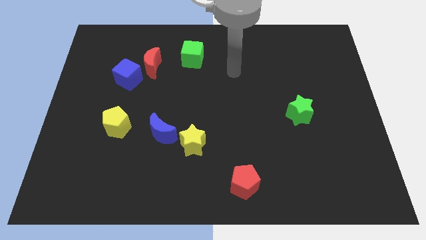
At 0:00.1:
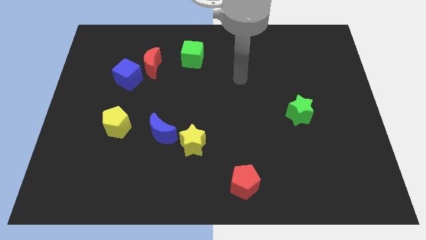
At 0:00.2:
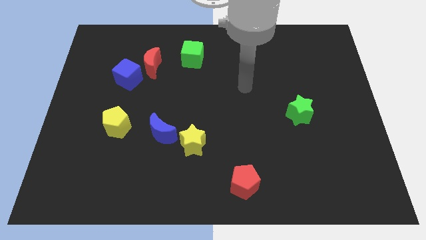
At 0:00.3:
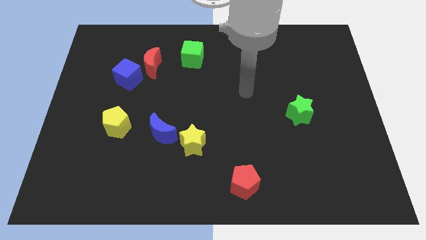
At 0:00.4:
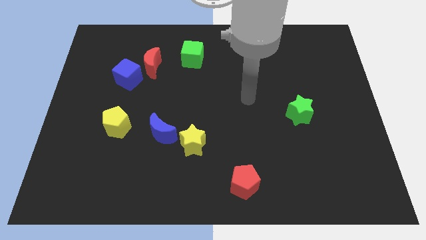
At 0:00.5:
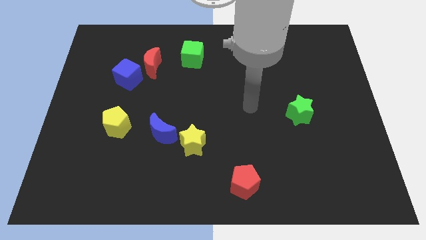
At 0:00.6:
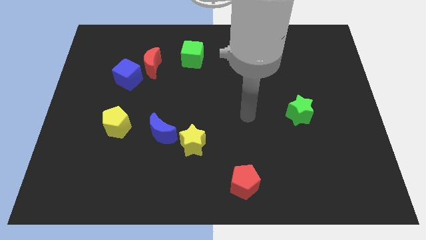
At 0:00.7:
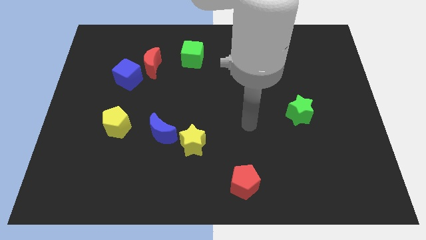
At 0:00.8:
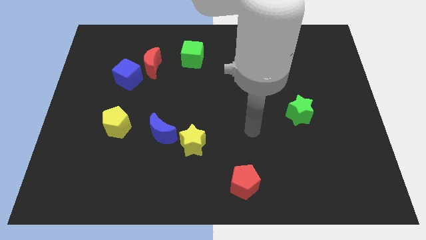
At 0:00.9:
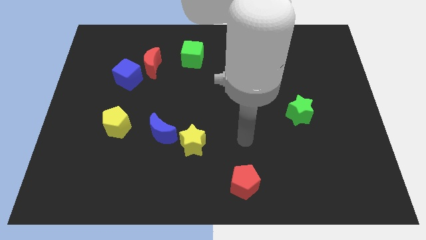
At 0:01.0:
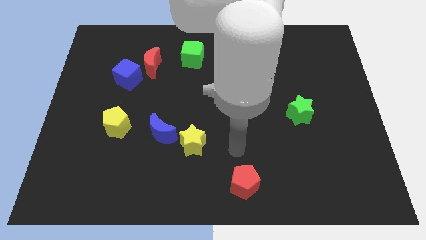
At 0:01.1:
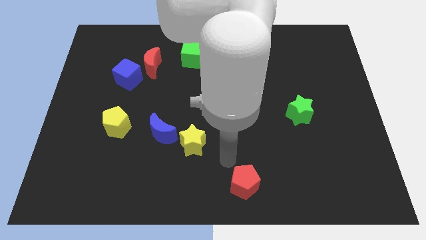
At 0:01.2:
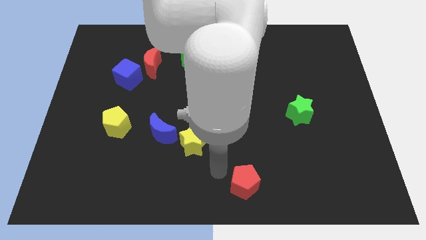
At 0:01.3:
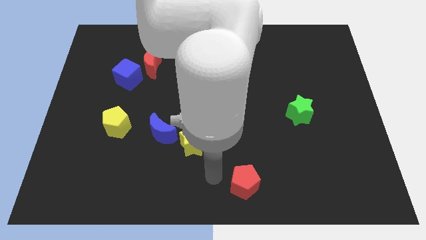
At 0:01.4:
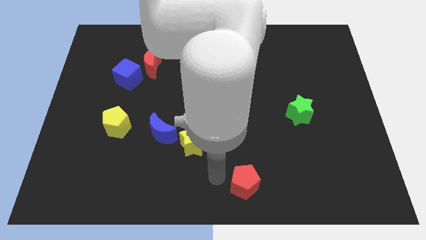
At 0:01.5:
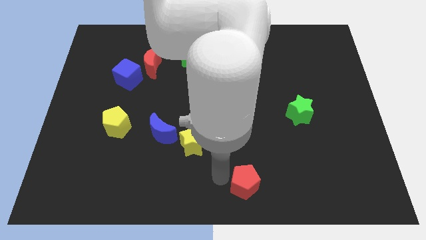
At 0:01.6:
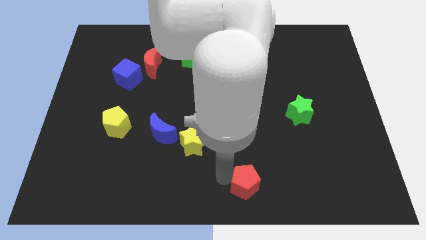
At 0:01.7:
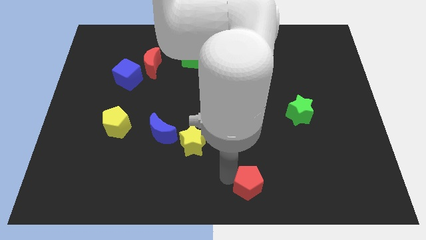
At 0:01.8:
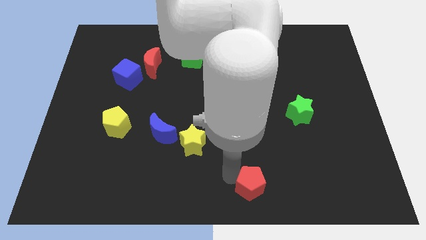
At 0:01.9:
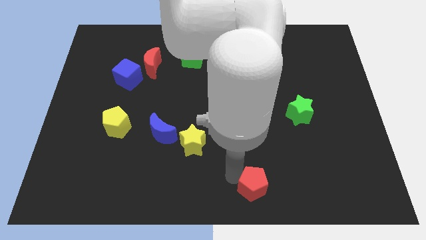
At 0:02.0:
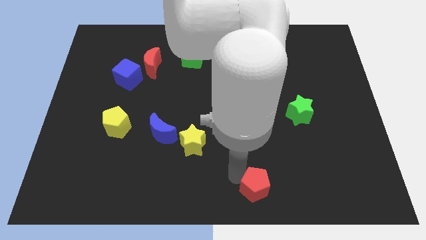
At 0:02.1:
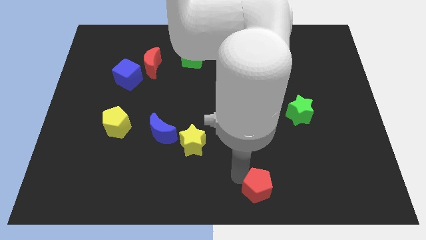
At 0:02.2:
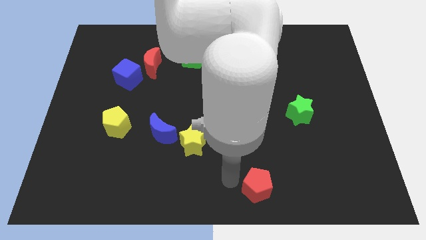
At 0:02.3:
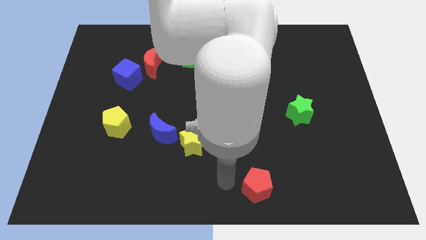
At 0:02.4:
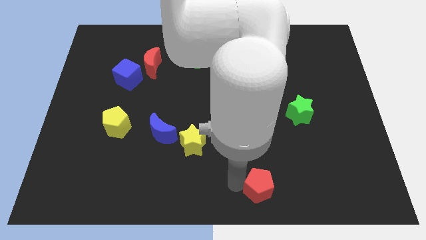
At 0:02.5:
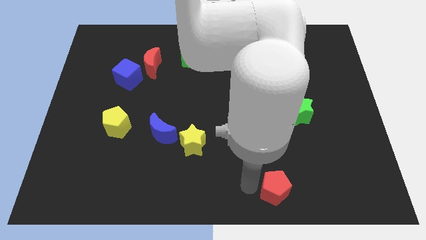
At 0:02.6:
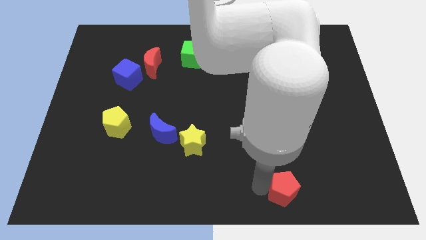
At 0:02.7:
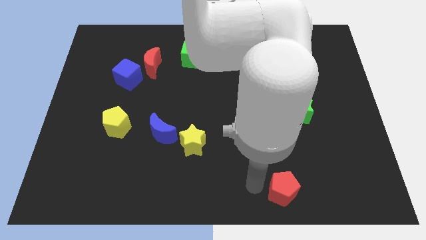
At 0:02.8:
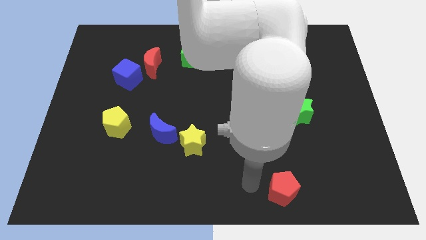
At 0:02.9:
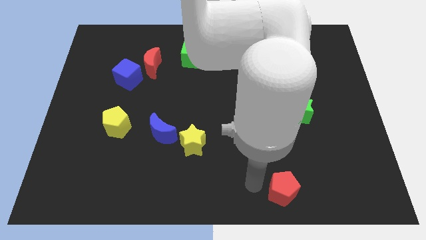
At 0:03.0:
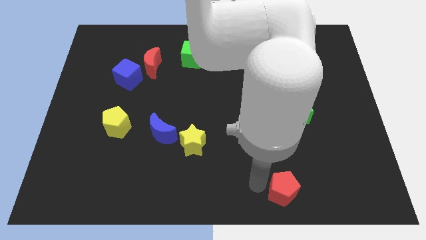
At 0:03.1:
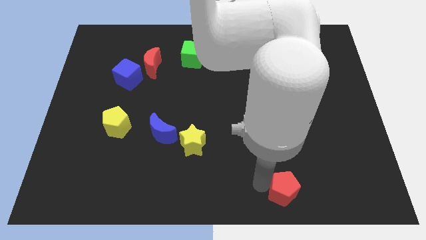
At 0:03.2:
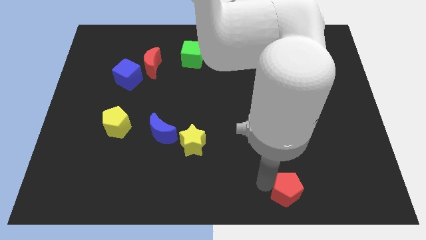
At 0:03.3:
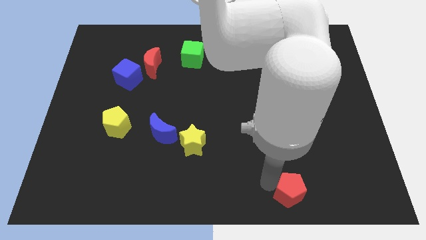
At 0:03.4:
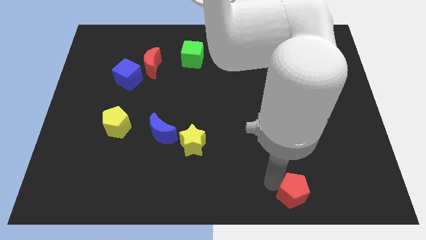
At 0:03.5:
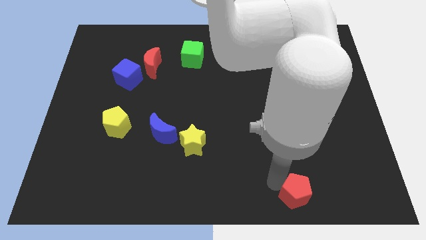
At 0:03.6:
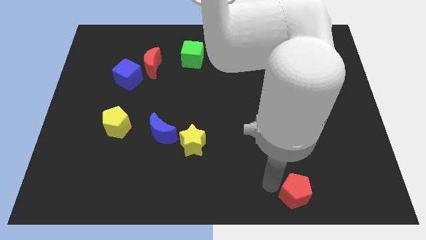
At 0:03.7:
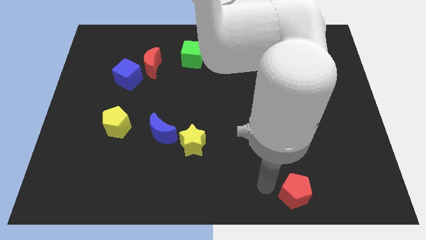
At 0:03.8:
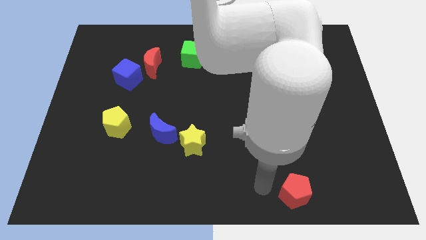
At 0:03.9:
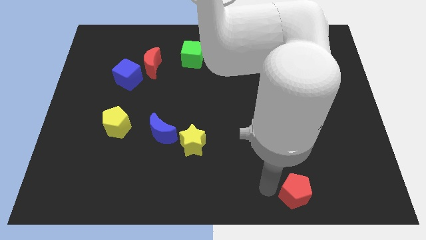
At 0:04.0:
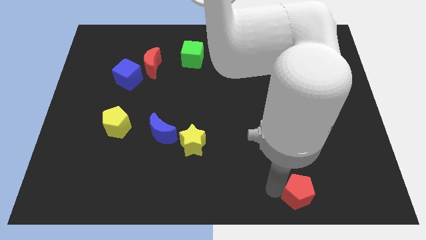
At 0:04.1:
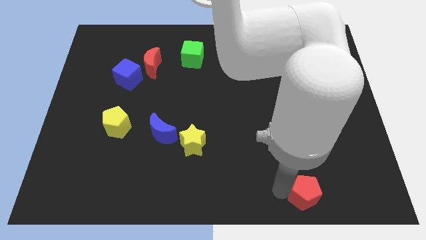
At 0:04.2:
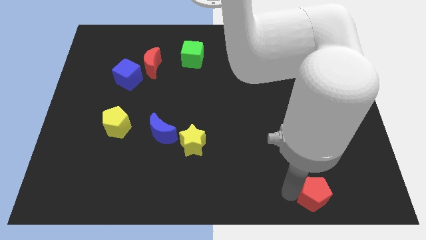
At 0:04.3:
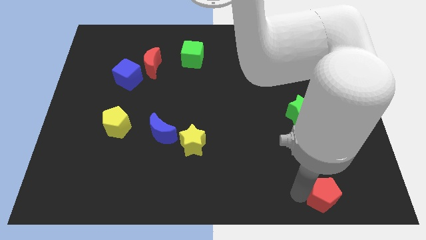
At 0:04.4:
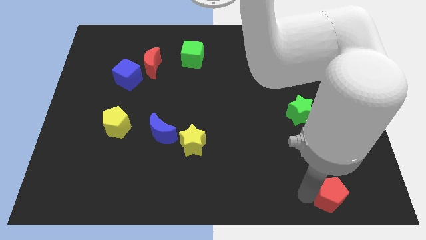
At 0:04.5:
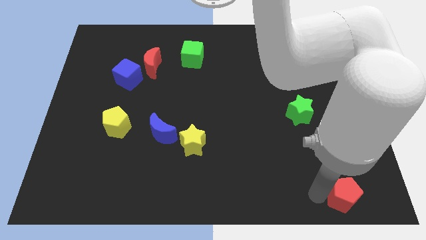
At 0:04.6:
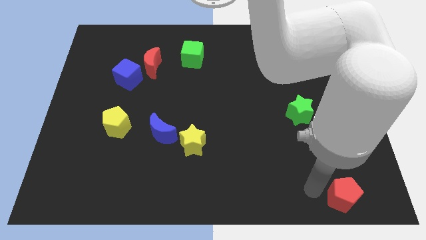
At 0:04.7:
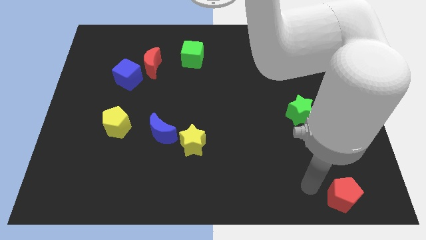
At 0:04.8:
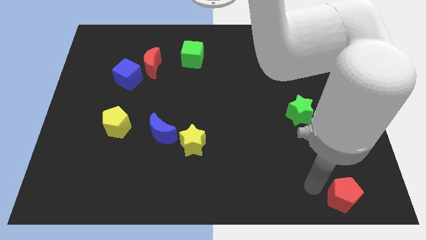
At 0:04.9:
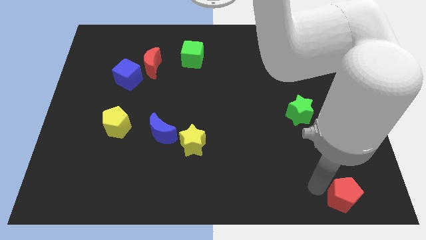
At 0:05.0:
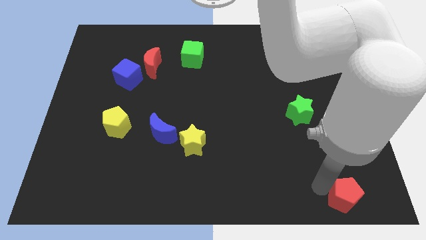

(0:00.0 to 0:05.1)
push the red pentagon to the bottom right corner

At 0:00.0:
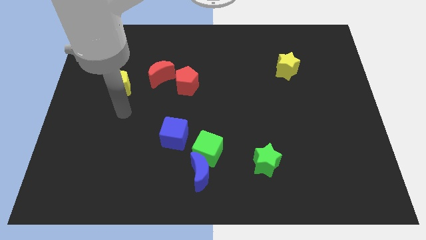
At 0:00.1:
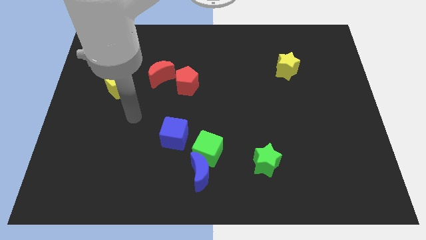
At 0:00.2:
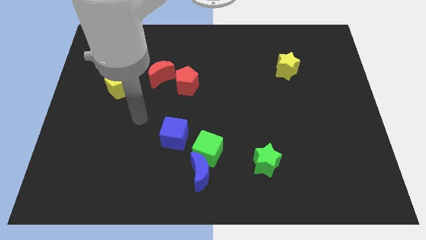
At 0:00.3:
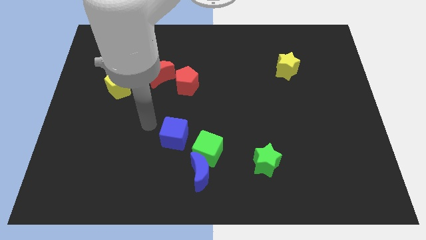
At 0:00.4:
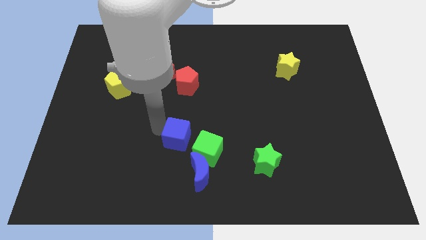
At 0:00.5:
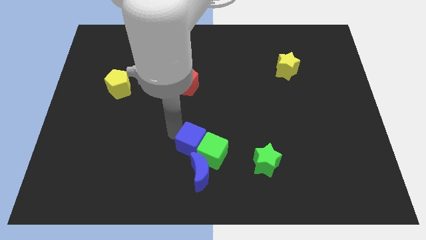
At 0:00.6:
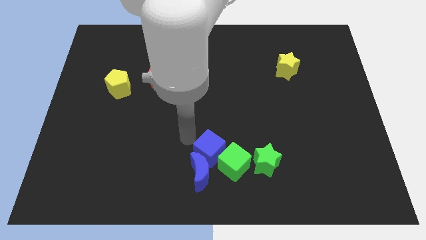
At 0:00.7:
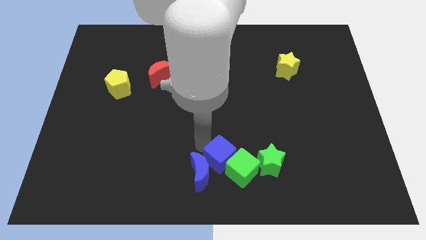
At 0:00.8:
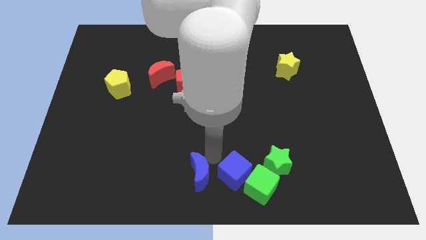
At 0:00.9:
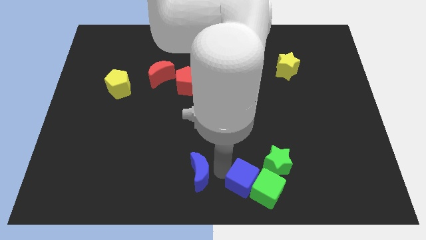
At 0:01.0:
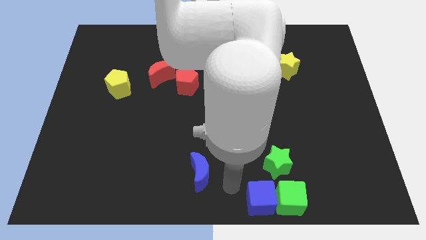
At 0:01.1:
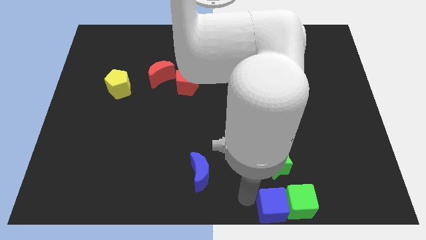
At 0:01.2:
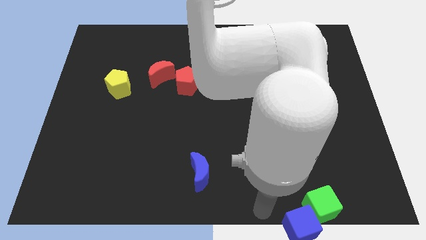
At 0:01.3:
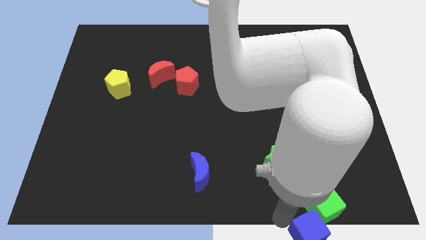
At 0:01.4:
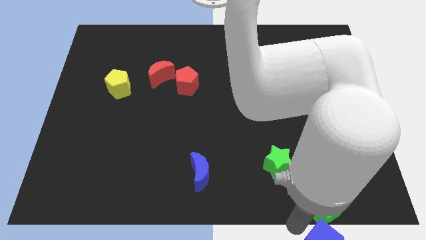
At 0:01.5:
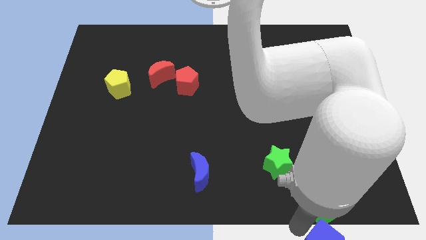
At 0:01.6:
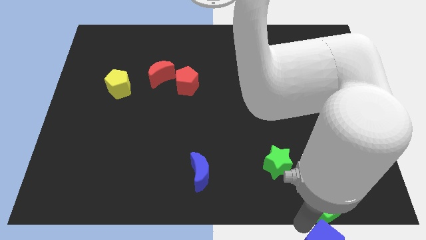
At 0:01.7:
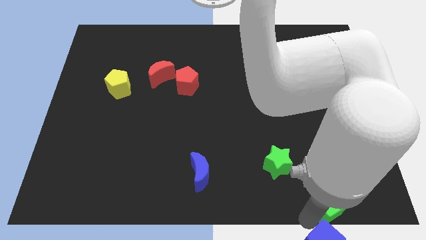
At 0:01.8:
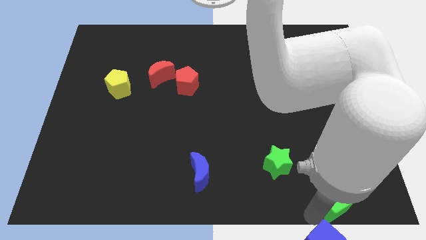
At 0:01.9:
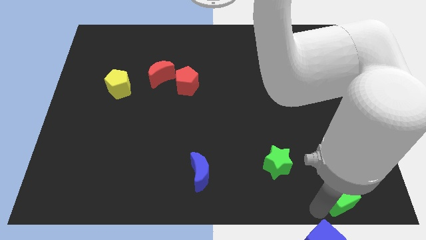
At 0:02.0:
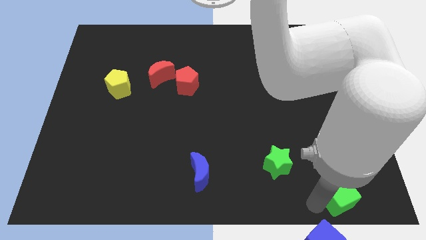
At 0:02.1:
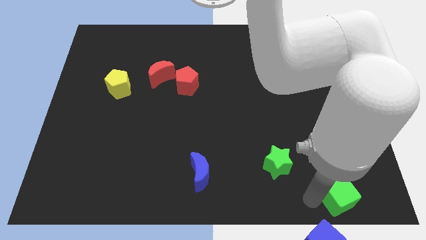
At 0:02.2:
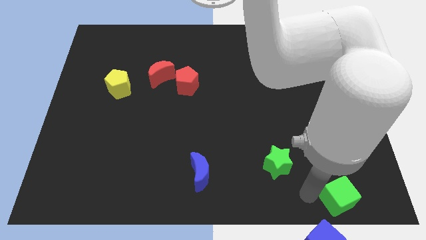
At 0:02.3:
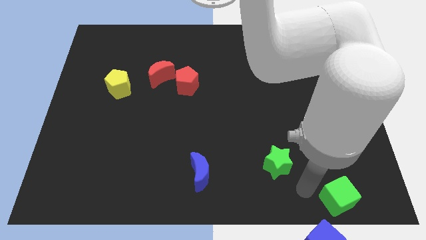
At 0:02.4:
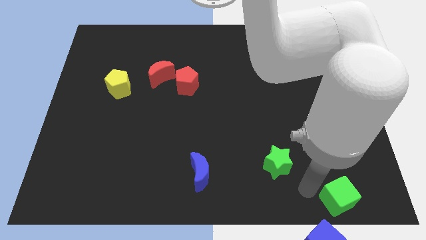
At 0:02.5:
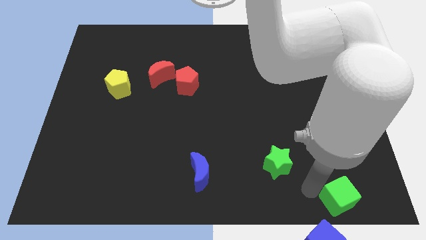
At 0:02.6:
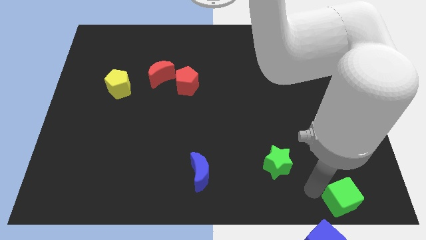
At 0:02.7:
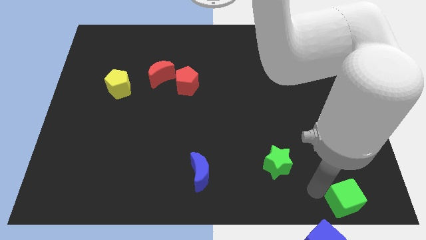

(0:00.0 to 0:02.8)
slide the green cube to the bottom right
